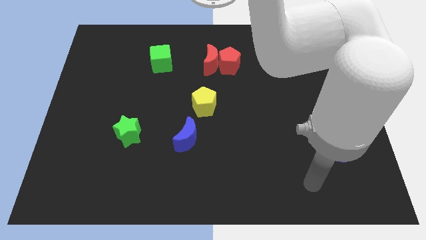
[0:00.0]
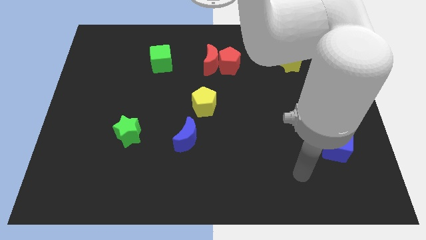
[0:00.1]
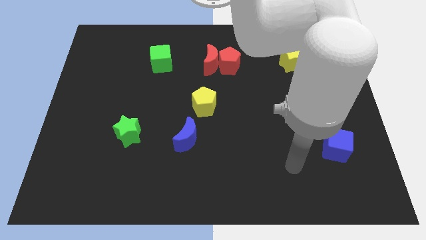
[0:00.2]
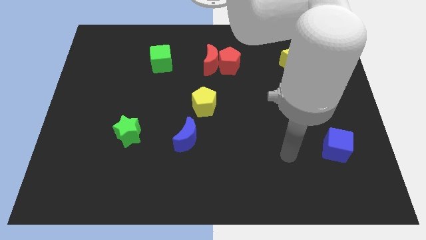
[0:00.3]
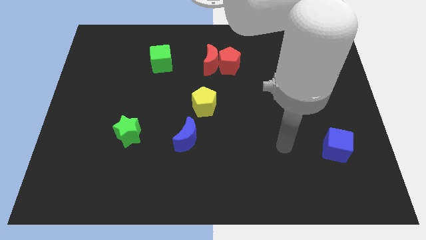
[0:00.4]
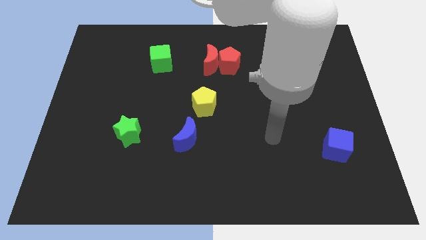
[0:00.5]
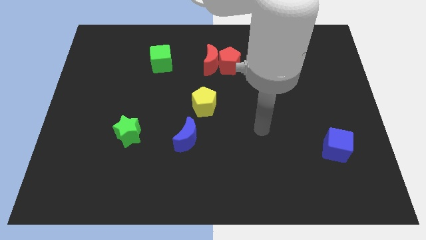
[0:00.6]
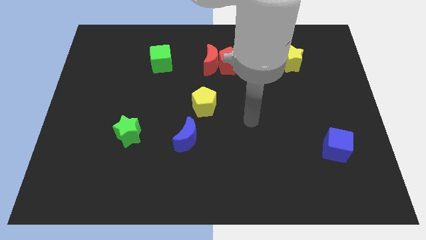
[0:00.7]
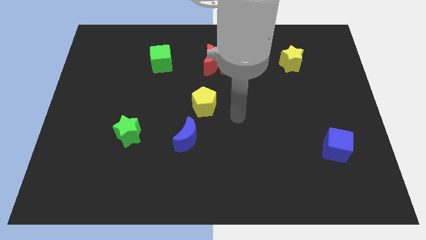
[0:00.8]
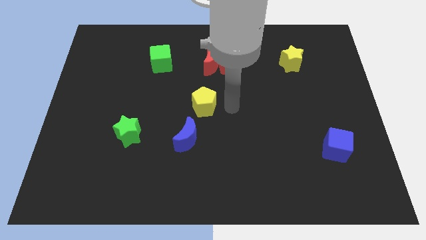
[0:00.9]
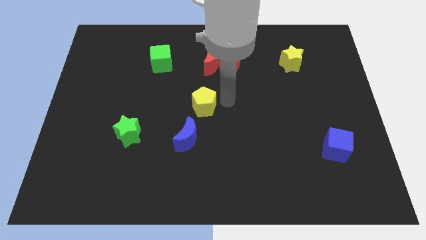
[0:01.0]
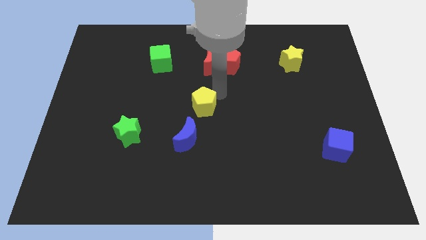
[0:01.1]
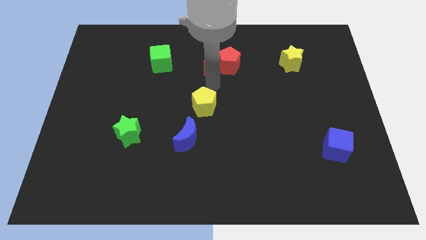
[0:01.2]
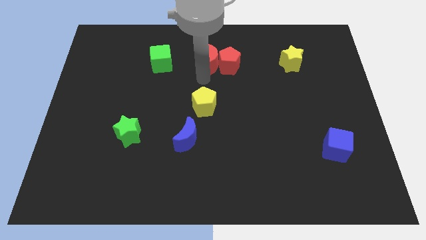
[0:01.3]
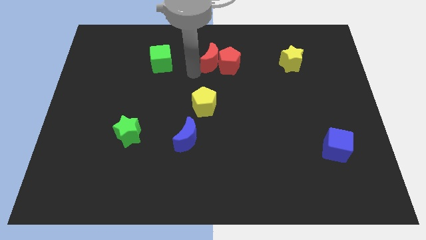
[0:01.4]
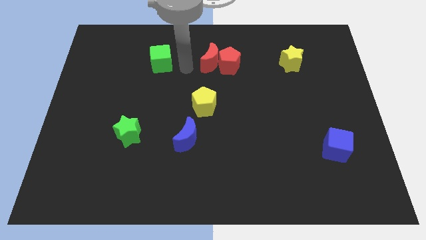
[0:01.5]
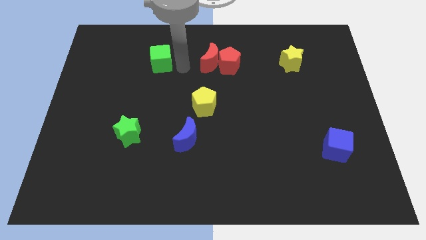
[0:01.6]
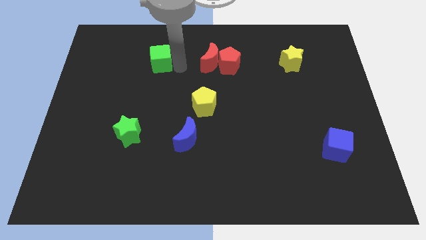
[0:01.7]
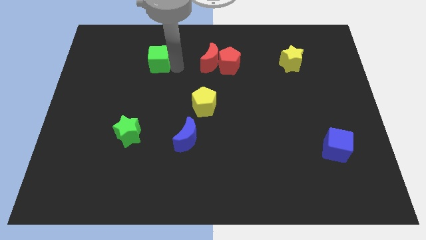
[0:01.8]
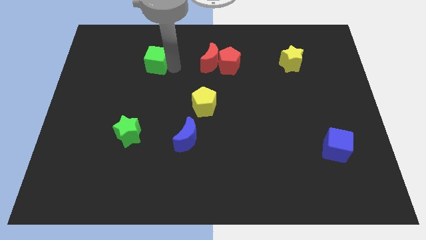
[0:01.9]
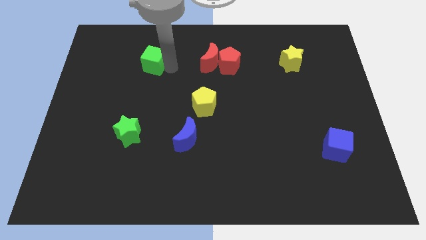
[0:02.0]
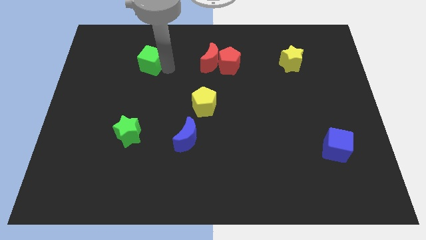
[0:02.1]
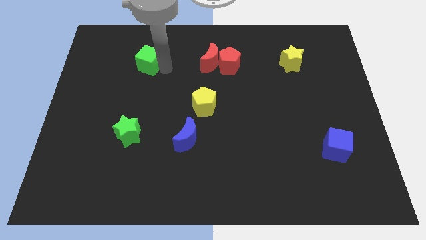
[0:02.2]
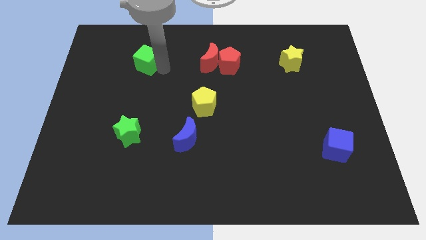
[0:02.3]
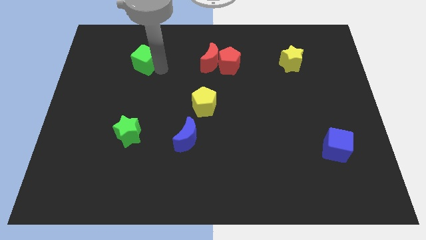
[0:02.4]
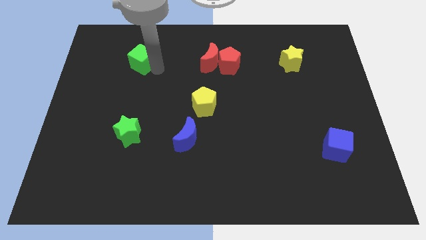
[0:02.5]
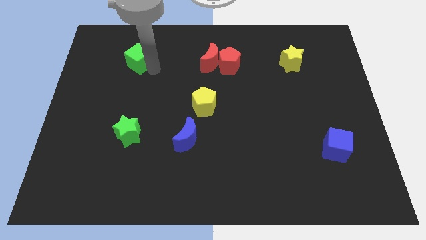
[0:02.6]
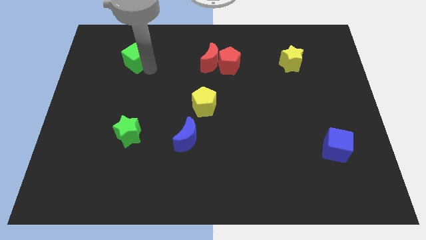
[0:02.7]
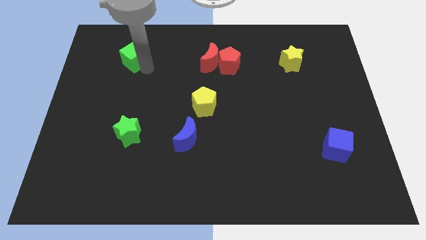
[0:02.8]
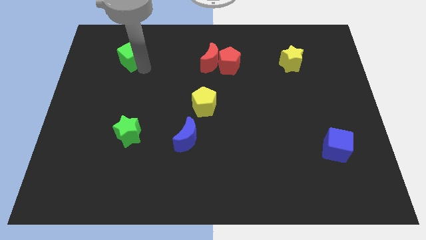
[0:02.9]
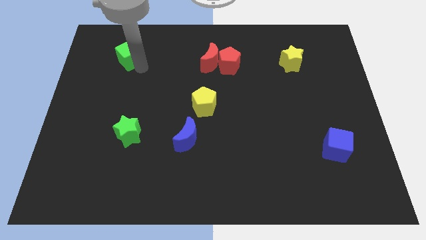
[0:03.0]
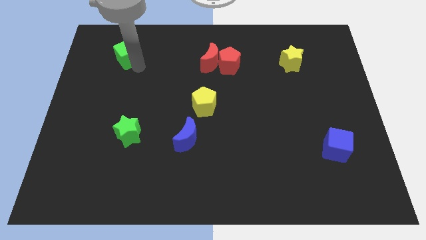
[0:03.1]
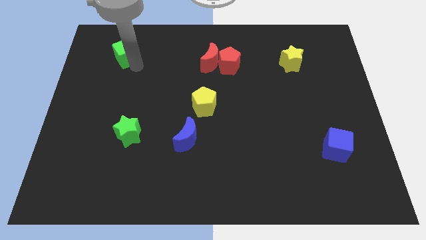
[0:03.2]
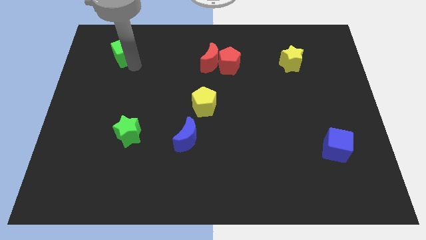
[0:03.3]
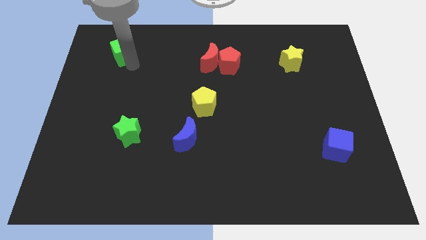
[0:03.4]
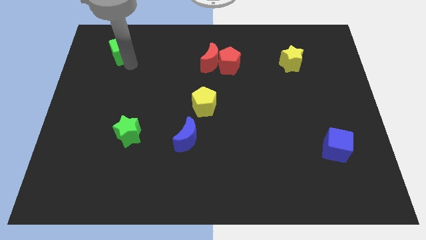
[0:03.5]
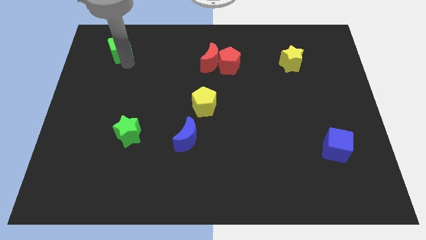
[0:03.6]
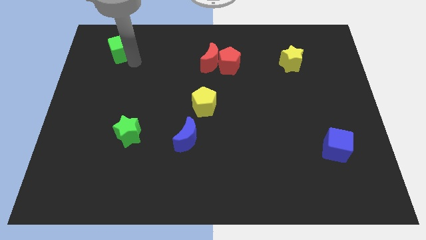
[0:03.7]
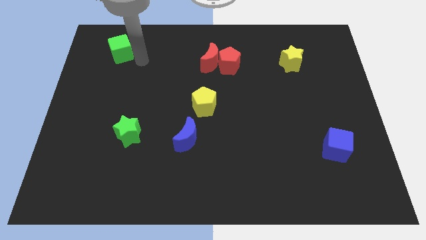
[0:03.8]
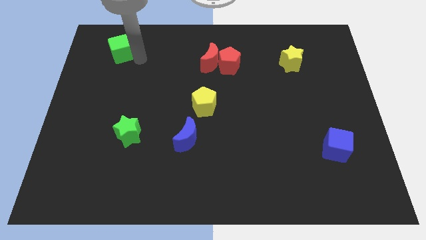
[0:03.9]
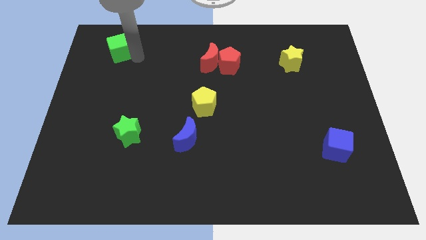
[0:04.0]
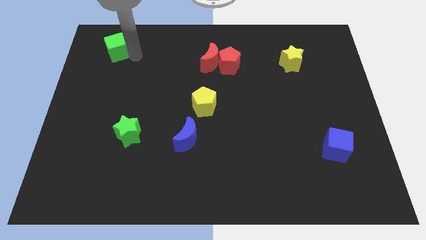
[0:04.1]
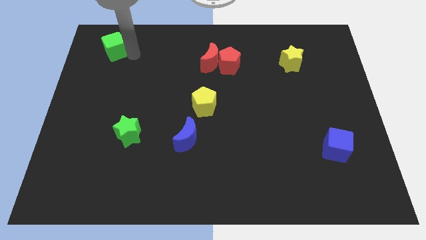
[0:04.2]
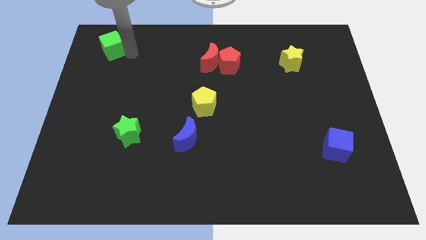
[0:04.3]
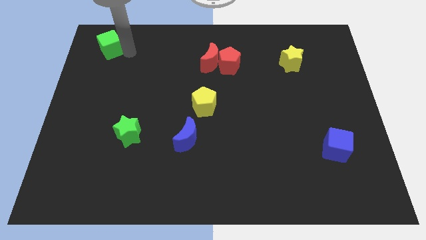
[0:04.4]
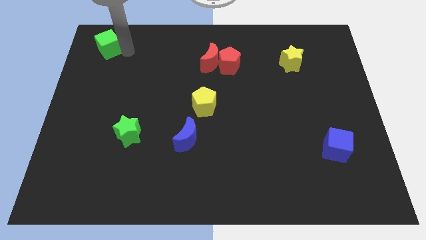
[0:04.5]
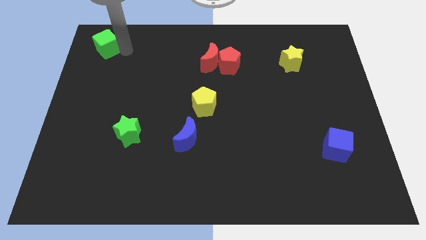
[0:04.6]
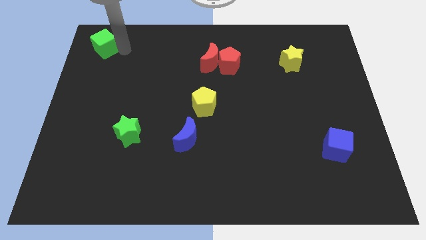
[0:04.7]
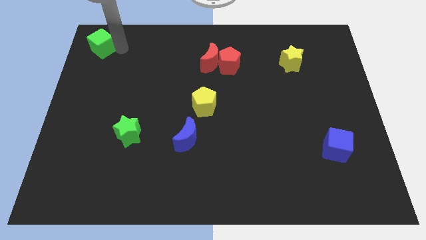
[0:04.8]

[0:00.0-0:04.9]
put the green cube to the top left of the board

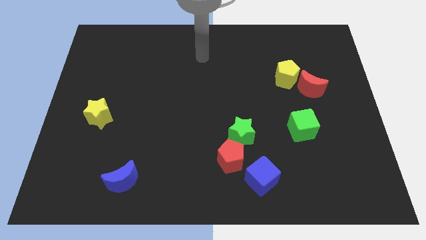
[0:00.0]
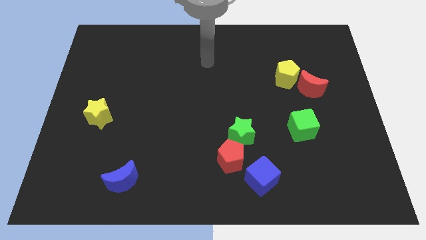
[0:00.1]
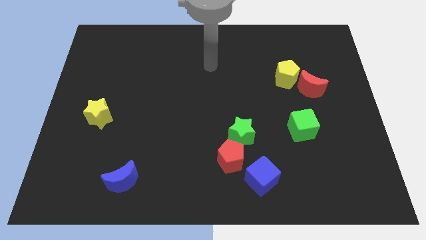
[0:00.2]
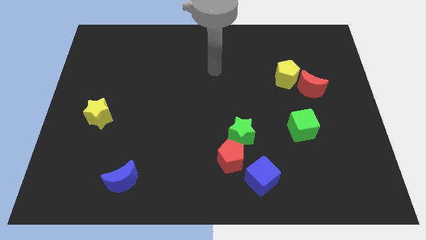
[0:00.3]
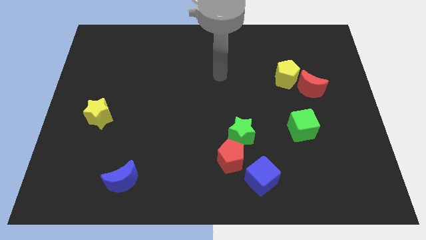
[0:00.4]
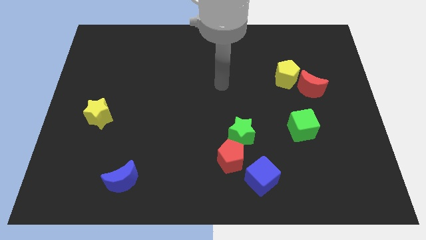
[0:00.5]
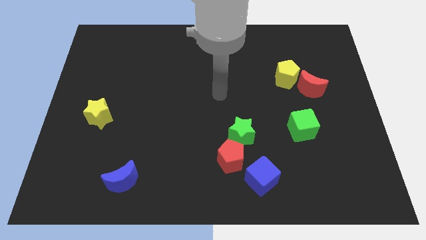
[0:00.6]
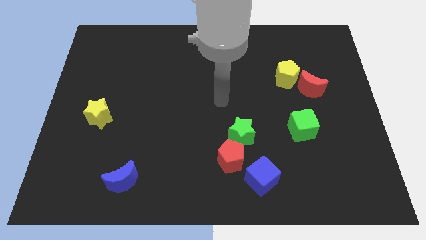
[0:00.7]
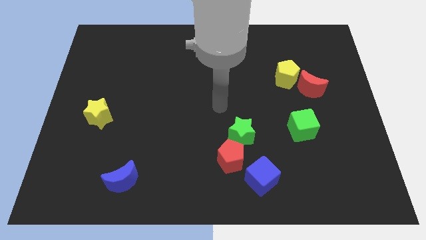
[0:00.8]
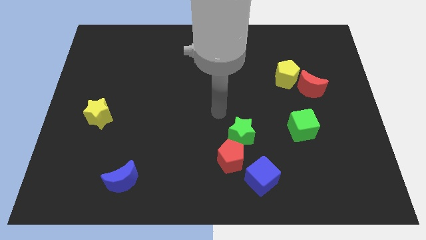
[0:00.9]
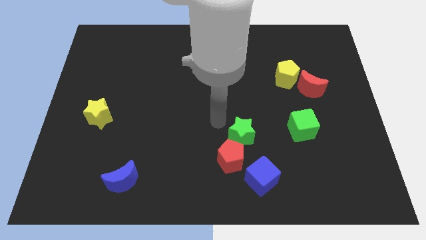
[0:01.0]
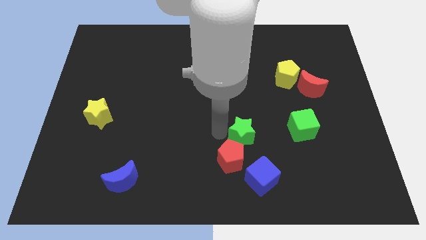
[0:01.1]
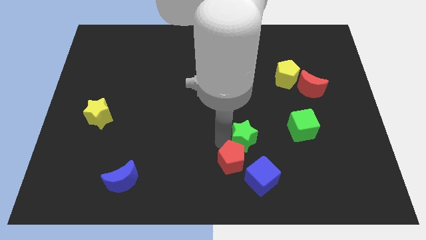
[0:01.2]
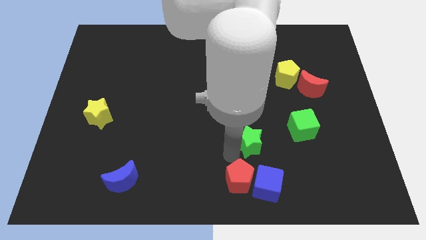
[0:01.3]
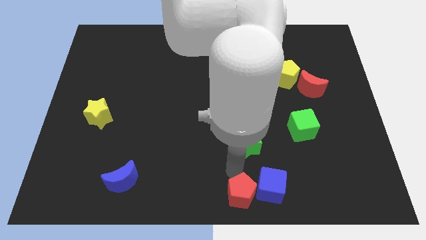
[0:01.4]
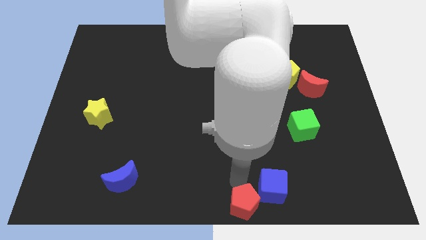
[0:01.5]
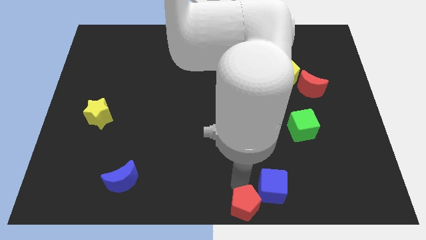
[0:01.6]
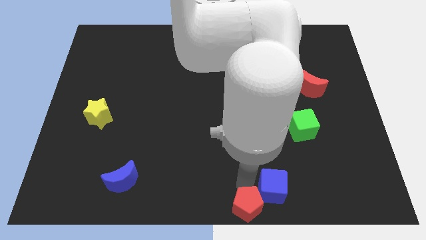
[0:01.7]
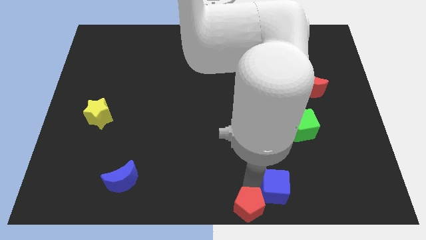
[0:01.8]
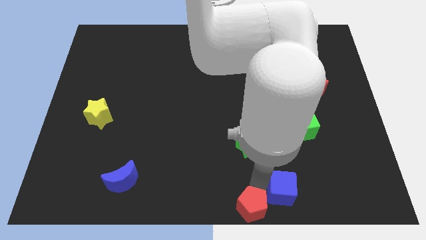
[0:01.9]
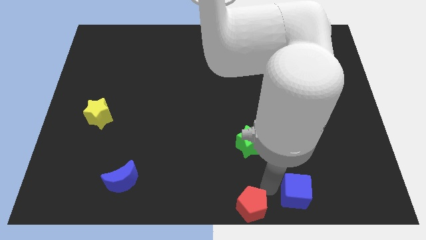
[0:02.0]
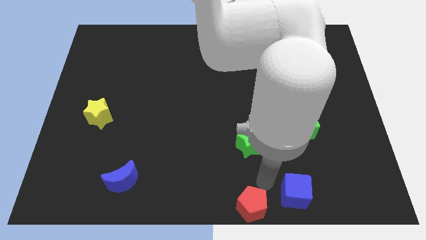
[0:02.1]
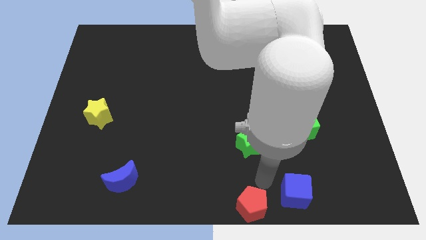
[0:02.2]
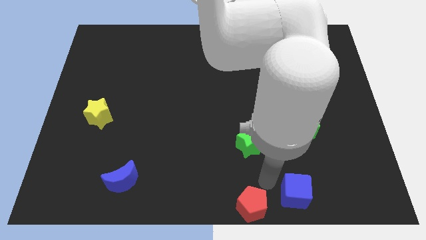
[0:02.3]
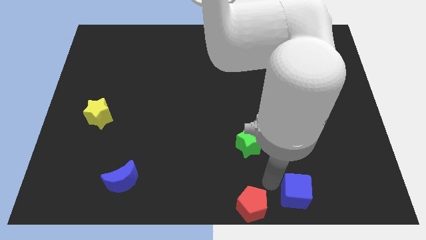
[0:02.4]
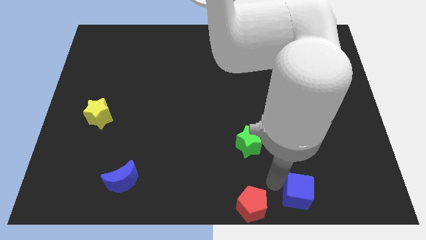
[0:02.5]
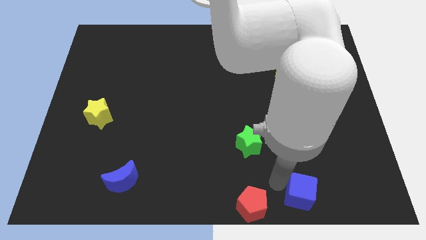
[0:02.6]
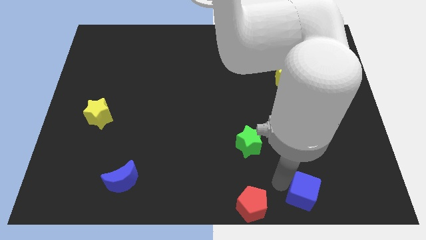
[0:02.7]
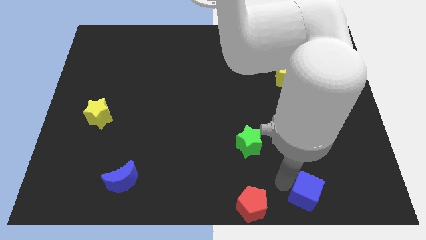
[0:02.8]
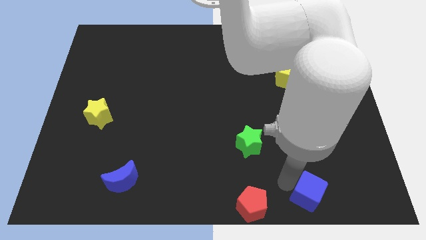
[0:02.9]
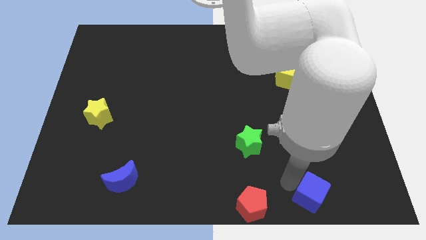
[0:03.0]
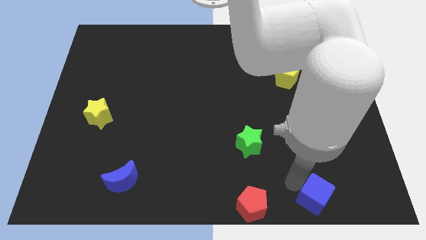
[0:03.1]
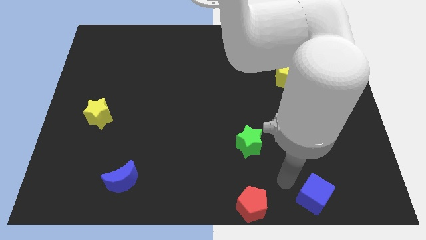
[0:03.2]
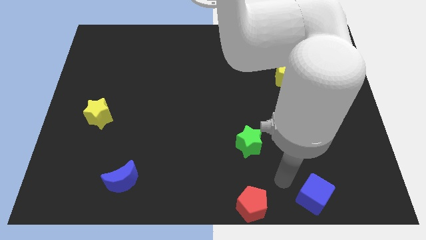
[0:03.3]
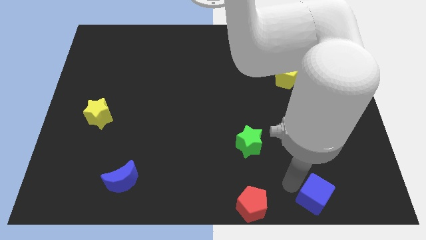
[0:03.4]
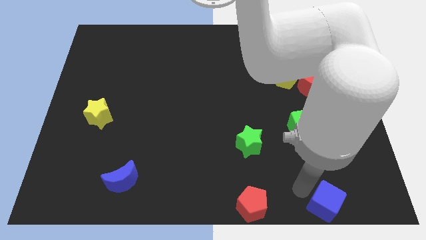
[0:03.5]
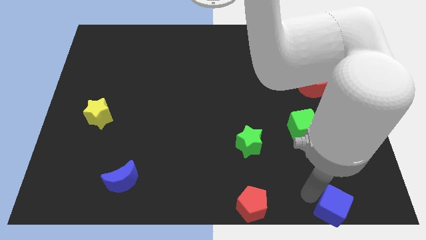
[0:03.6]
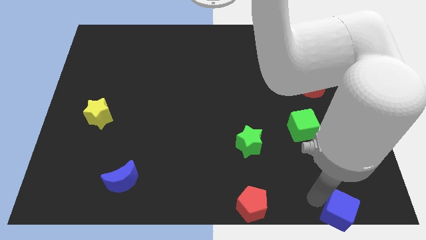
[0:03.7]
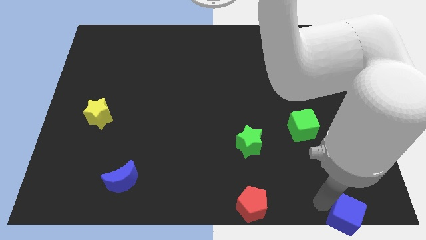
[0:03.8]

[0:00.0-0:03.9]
slide the blue cube to the bottom right of the board
